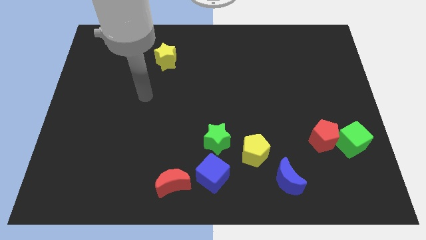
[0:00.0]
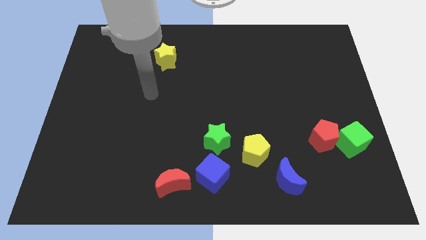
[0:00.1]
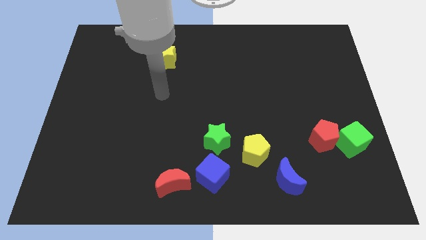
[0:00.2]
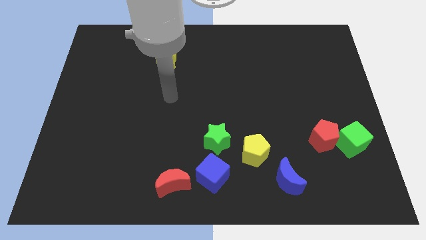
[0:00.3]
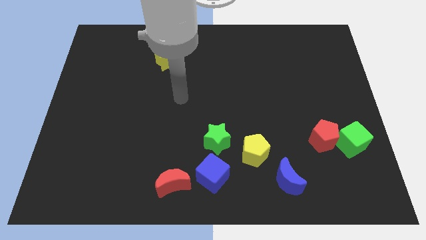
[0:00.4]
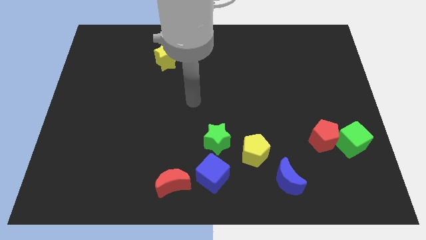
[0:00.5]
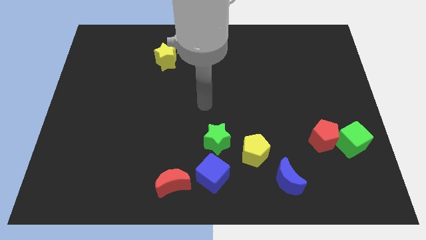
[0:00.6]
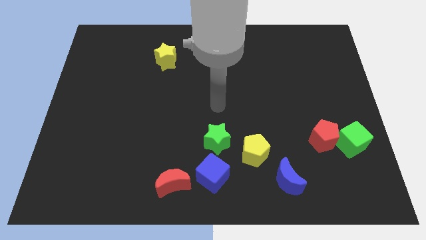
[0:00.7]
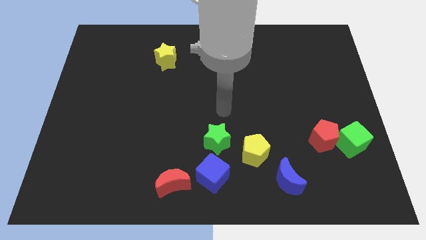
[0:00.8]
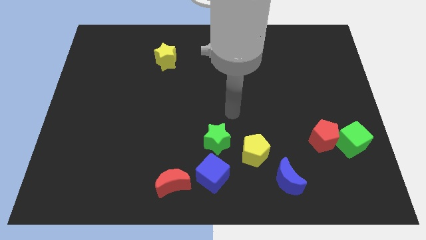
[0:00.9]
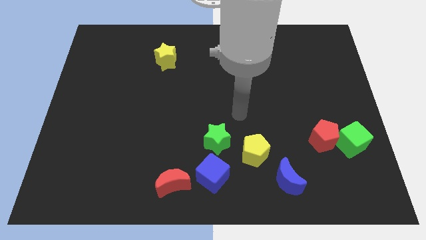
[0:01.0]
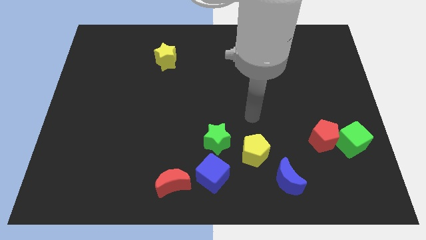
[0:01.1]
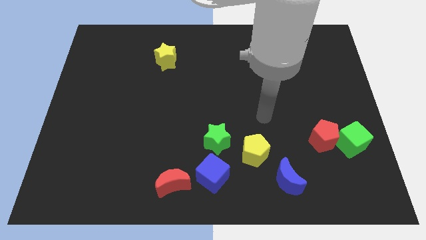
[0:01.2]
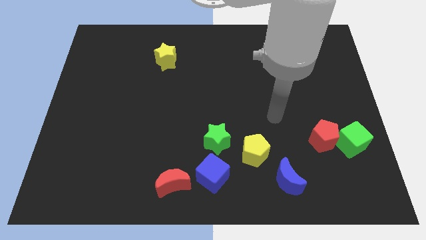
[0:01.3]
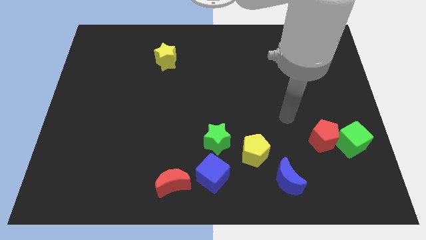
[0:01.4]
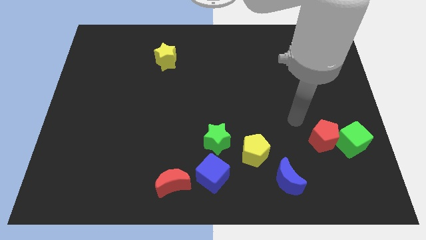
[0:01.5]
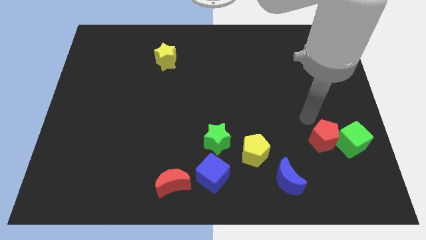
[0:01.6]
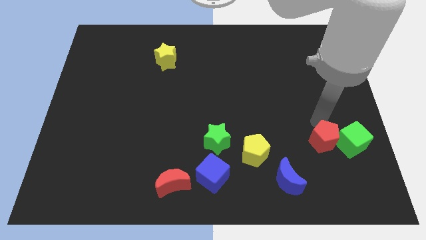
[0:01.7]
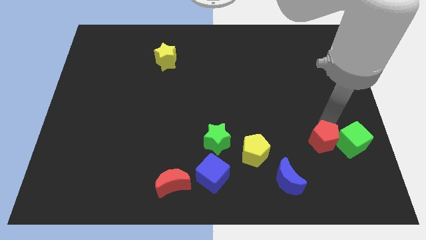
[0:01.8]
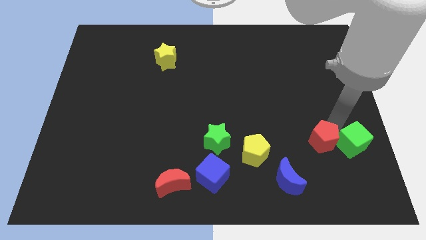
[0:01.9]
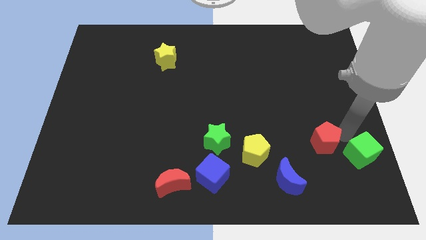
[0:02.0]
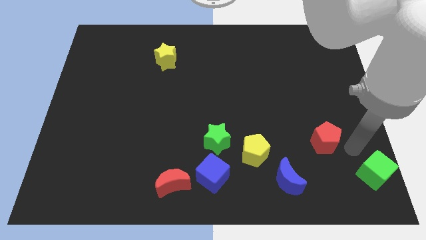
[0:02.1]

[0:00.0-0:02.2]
move the red pentagon away from the green cube

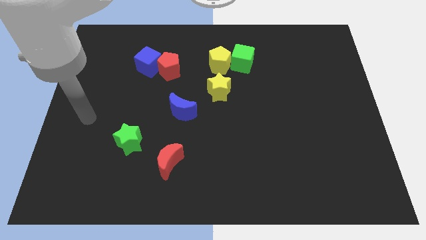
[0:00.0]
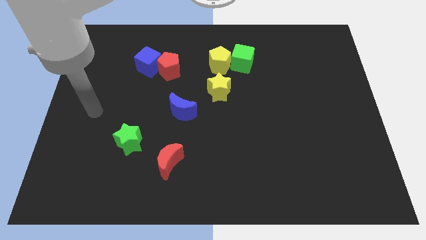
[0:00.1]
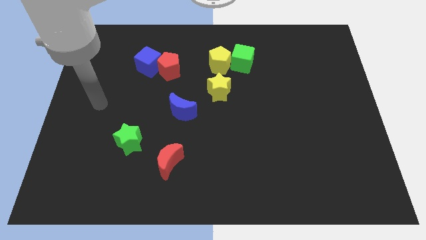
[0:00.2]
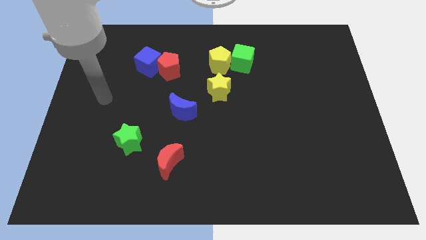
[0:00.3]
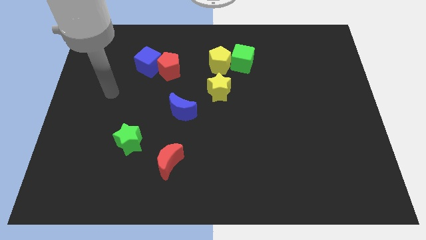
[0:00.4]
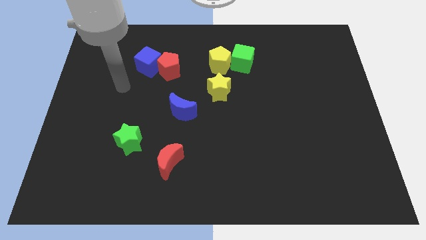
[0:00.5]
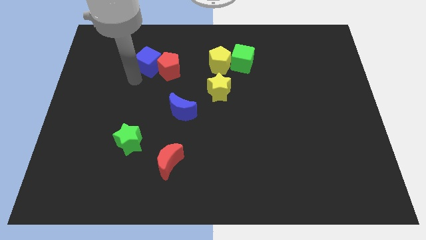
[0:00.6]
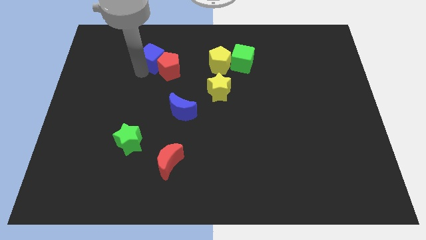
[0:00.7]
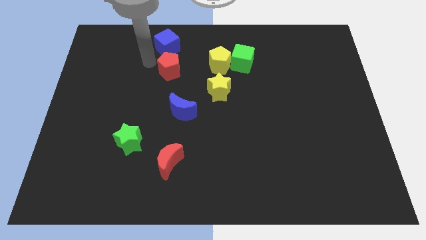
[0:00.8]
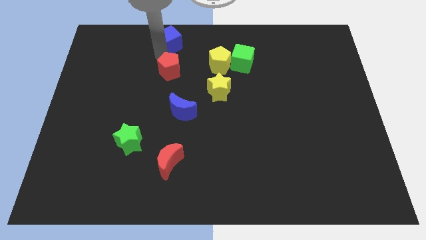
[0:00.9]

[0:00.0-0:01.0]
separate the red pentagon from the blue cube

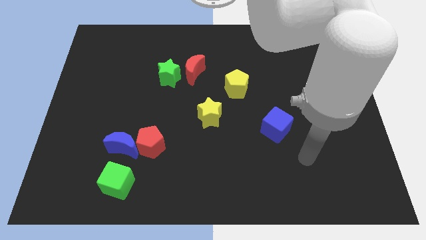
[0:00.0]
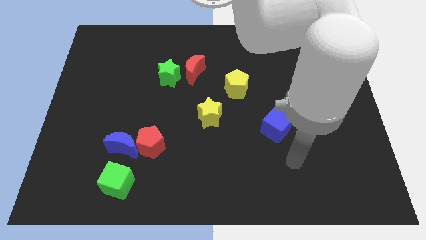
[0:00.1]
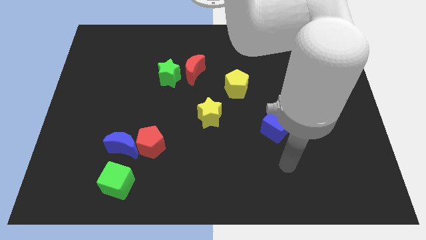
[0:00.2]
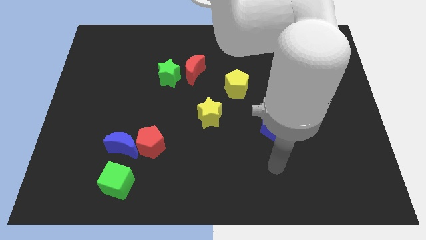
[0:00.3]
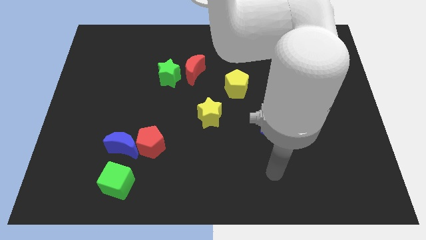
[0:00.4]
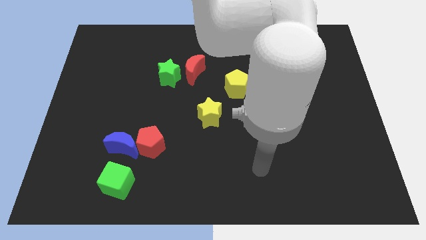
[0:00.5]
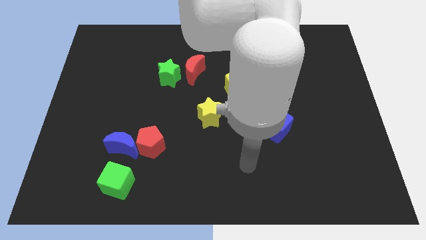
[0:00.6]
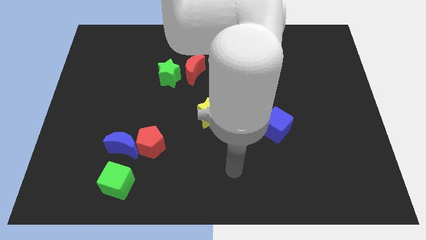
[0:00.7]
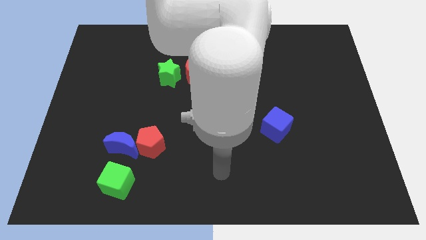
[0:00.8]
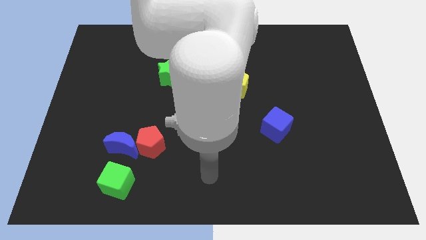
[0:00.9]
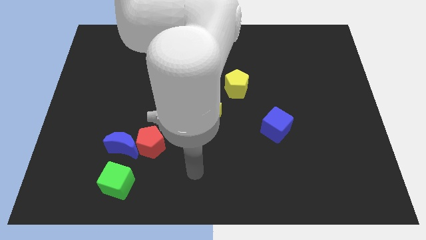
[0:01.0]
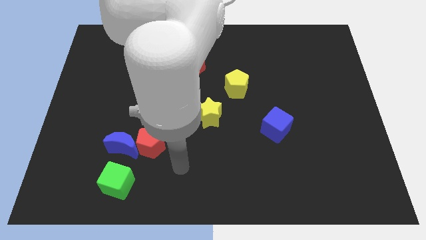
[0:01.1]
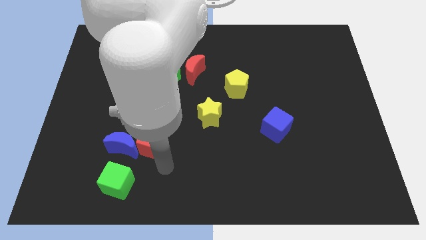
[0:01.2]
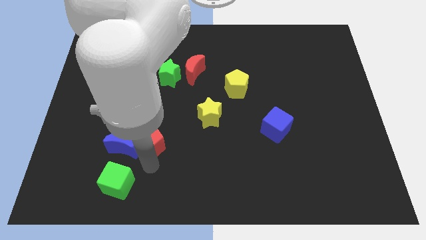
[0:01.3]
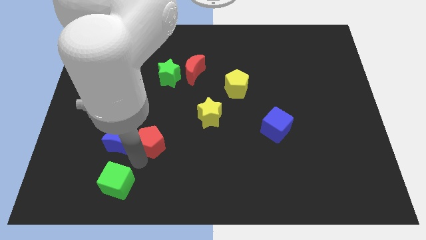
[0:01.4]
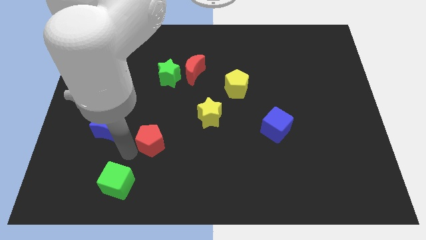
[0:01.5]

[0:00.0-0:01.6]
pull the red pentagon apart from the blue moon

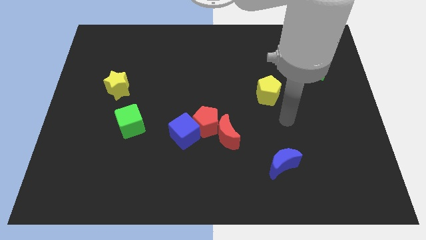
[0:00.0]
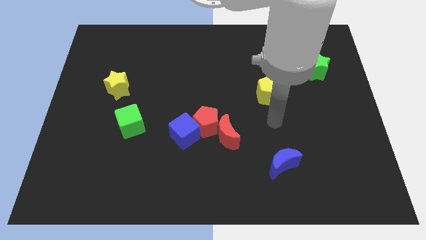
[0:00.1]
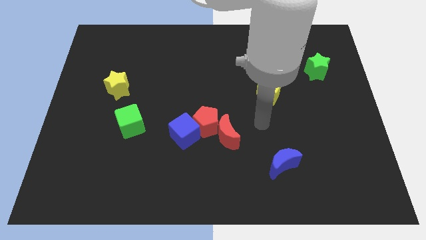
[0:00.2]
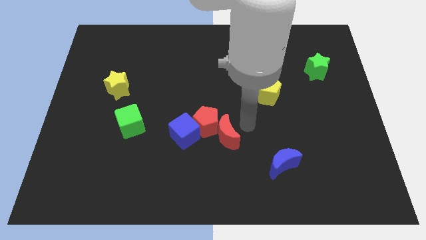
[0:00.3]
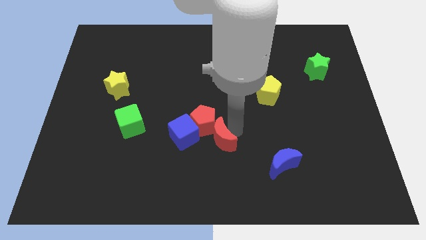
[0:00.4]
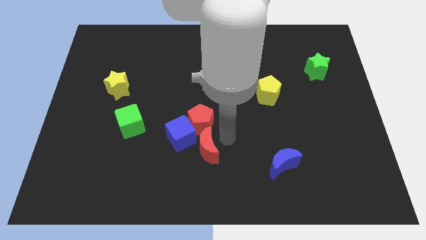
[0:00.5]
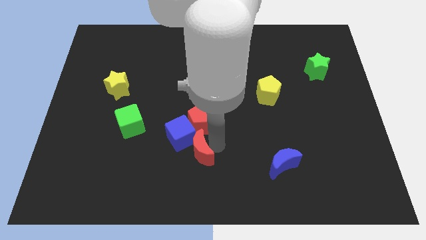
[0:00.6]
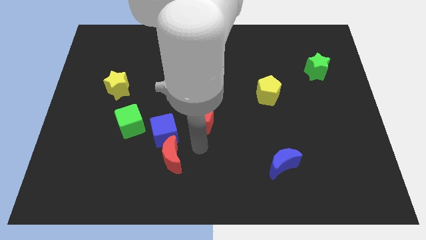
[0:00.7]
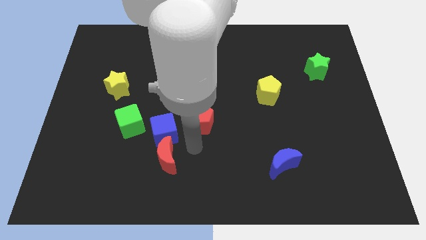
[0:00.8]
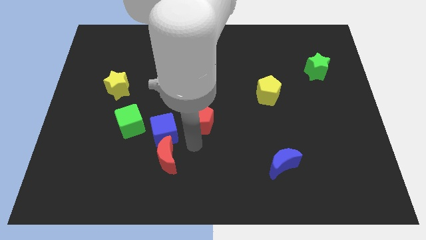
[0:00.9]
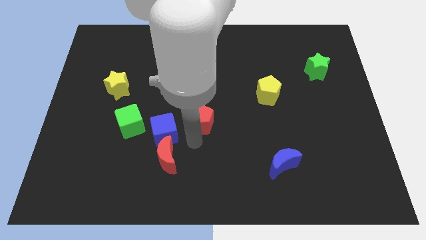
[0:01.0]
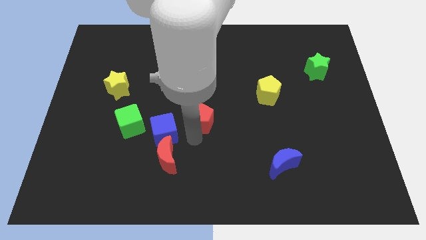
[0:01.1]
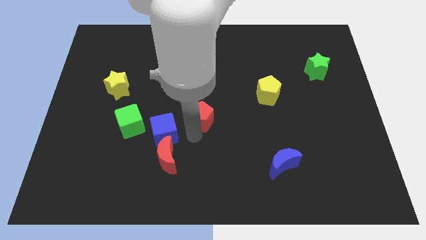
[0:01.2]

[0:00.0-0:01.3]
move the red pentagon away from the red moon and blue cube

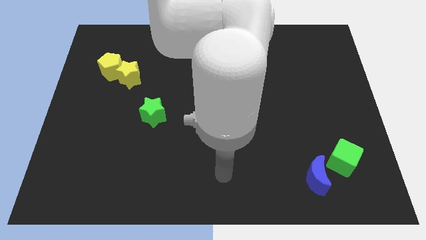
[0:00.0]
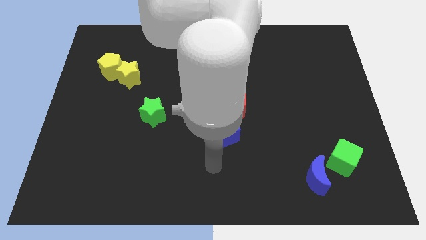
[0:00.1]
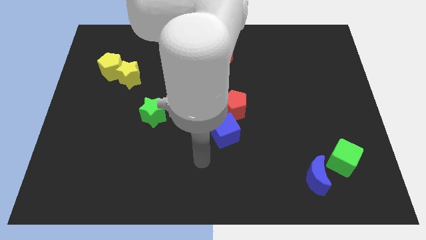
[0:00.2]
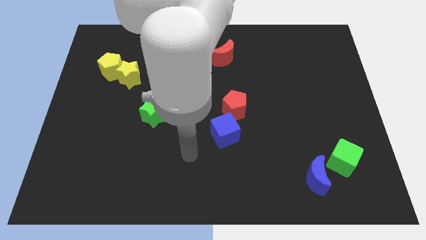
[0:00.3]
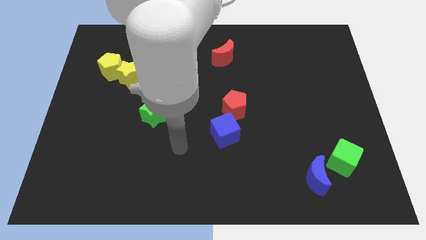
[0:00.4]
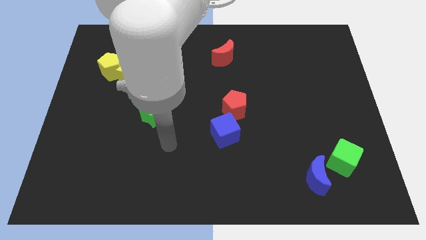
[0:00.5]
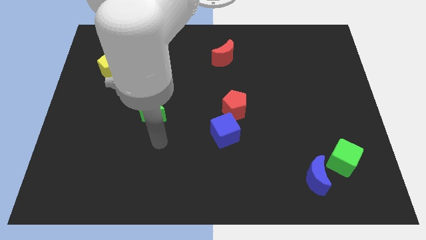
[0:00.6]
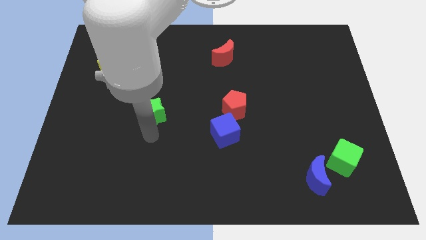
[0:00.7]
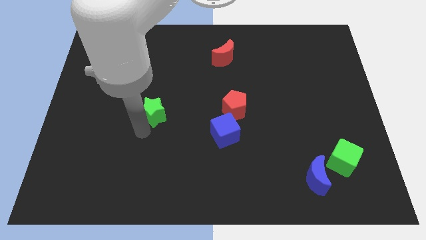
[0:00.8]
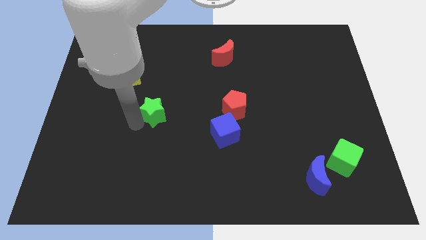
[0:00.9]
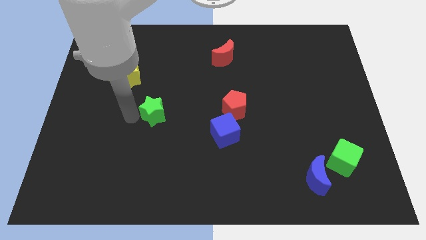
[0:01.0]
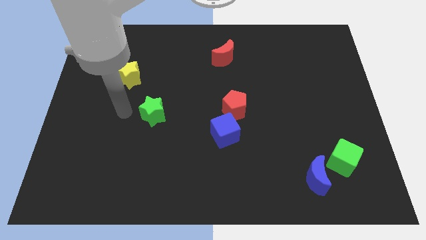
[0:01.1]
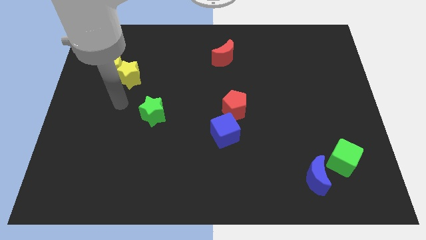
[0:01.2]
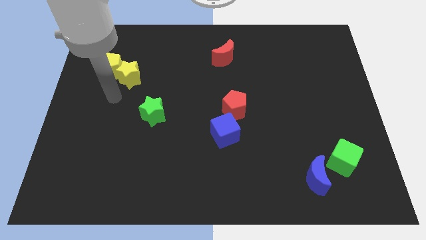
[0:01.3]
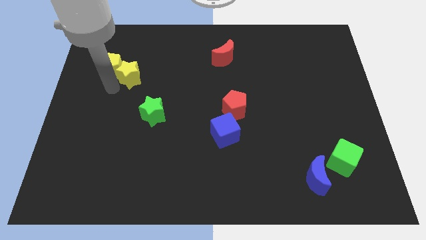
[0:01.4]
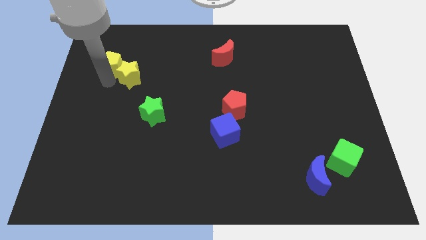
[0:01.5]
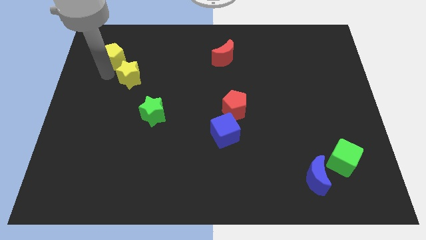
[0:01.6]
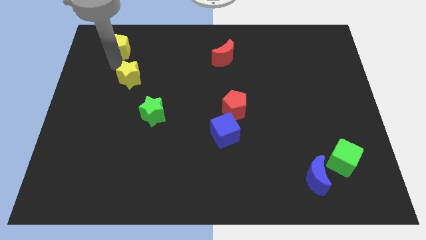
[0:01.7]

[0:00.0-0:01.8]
pull the yellow star apart from the yellow pentagon

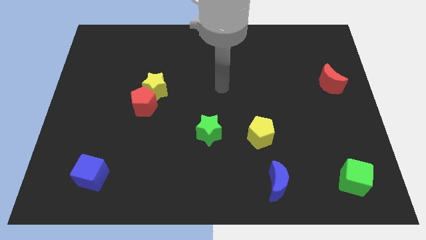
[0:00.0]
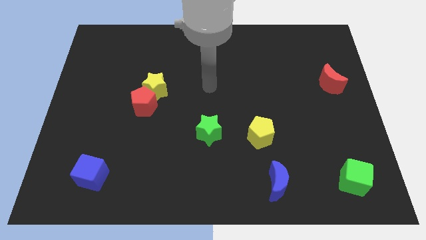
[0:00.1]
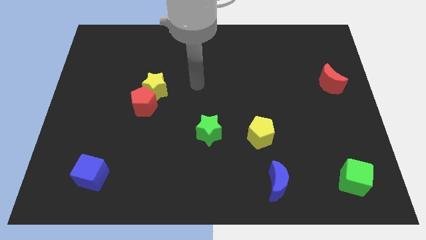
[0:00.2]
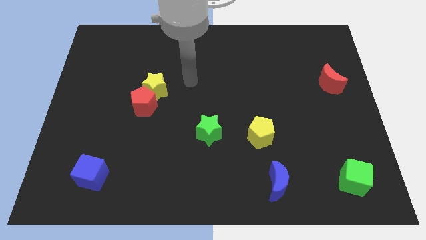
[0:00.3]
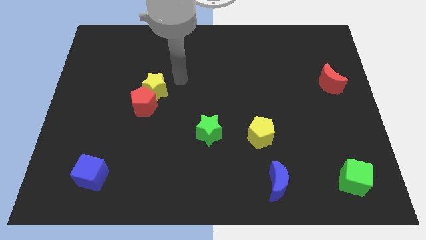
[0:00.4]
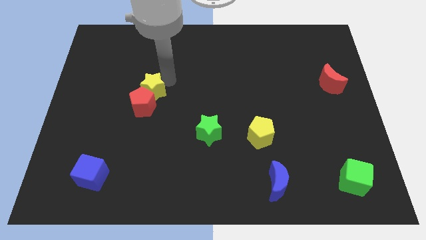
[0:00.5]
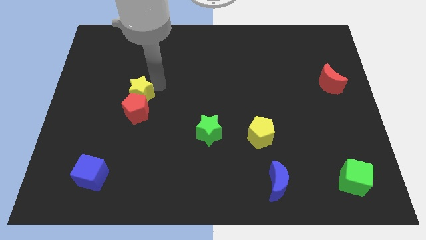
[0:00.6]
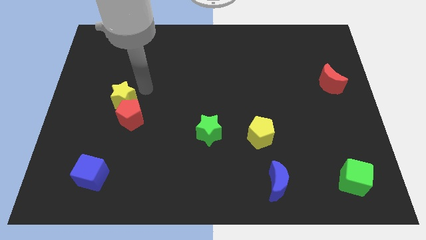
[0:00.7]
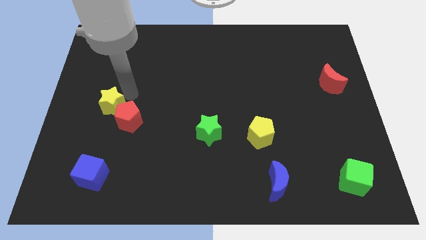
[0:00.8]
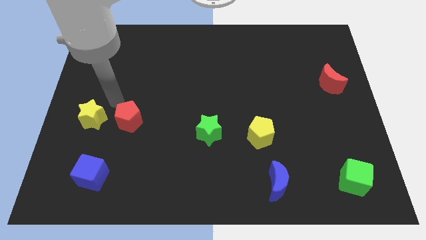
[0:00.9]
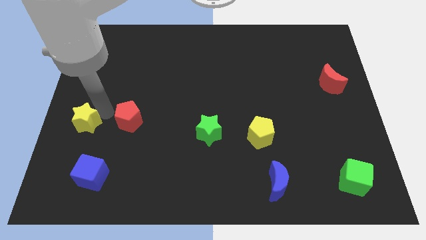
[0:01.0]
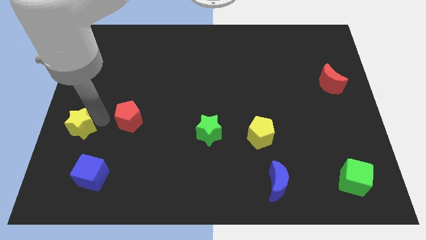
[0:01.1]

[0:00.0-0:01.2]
separate the red pentagon from the yellow star

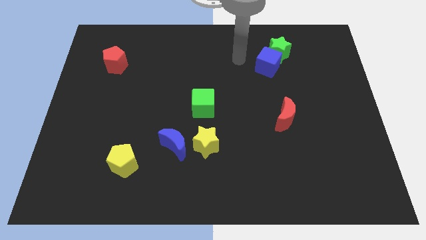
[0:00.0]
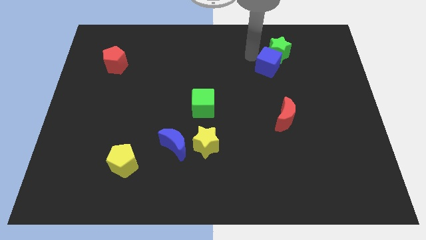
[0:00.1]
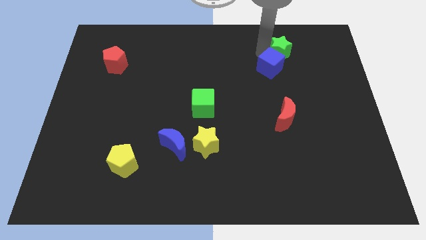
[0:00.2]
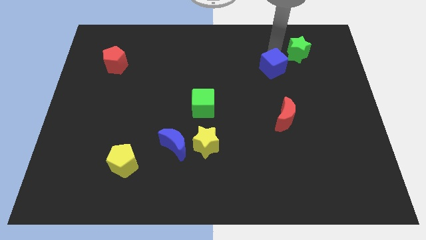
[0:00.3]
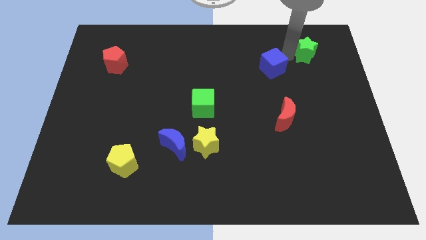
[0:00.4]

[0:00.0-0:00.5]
move the blue cube away from the green star
